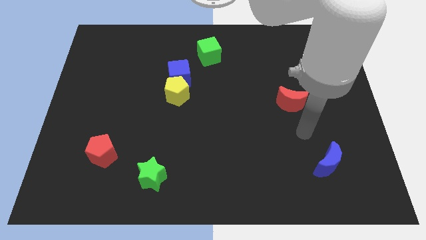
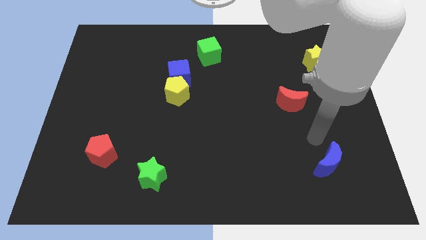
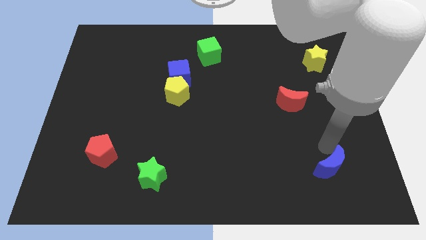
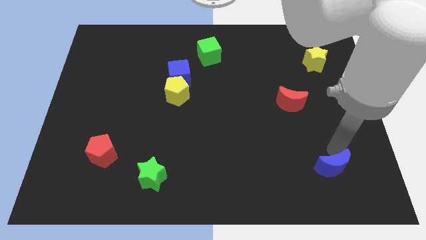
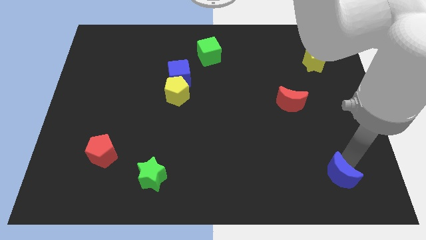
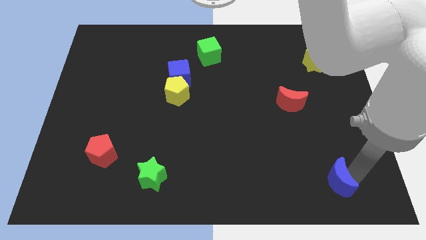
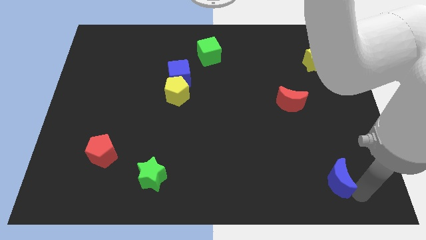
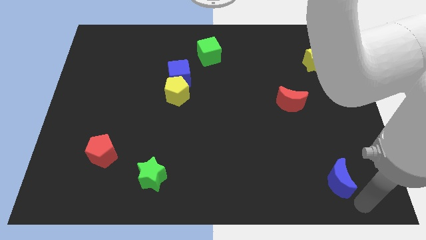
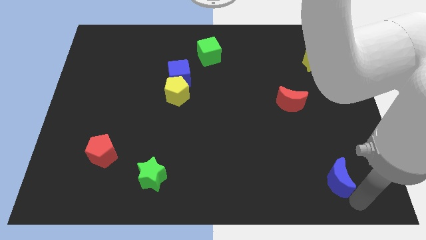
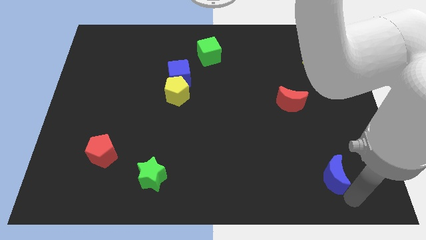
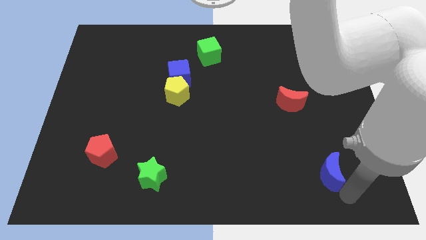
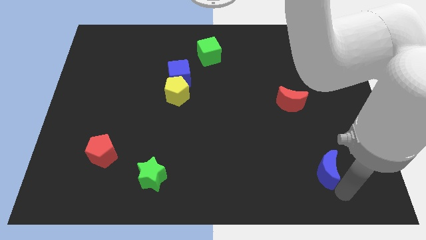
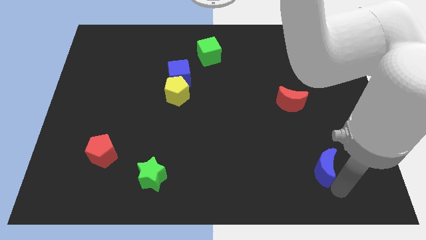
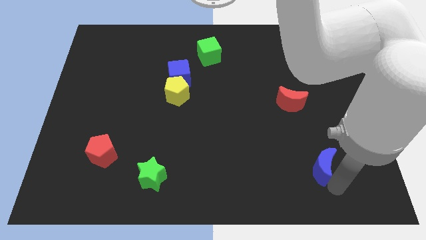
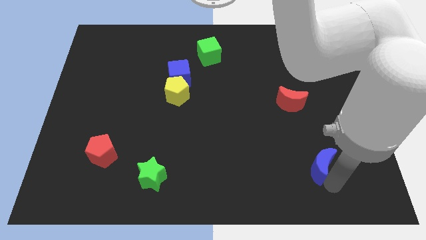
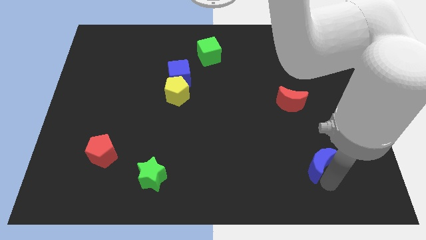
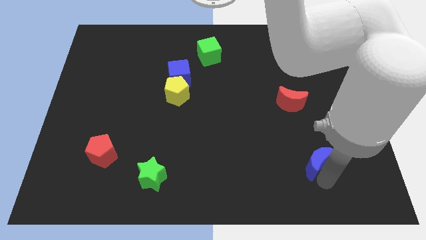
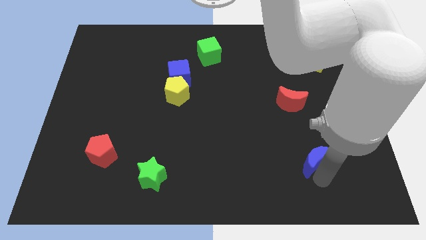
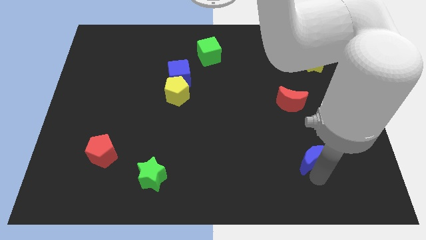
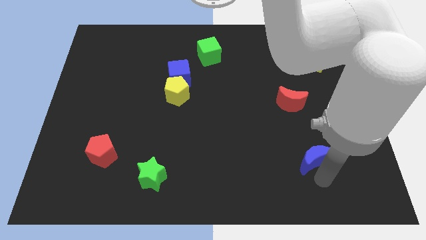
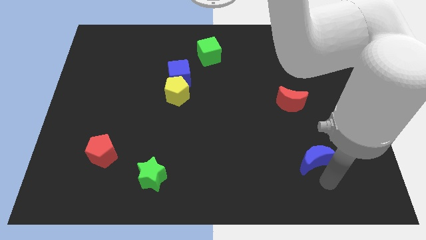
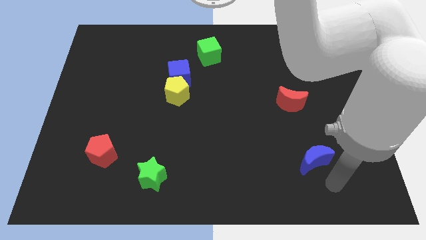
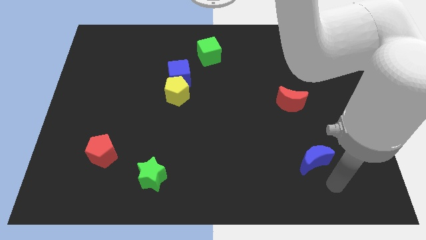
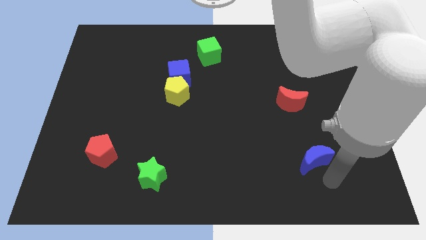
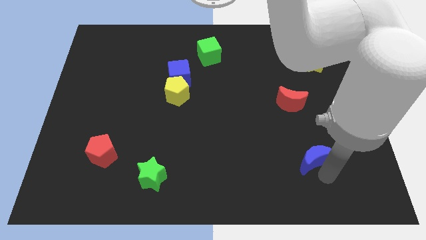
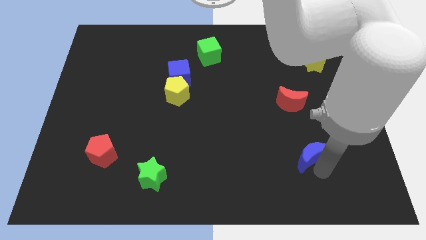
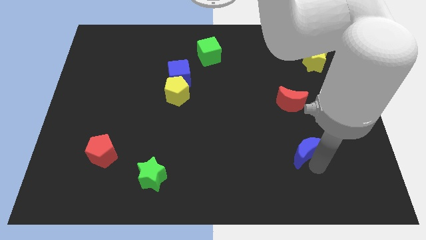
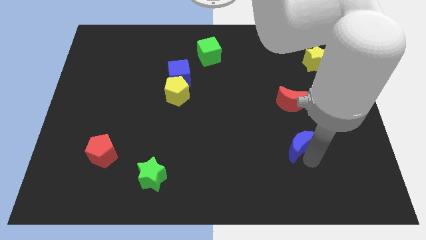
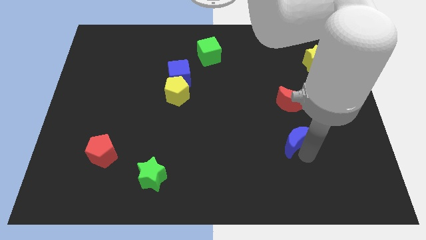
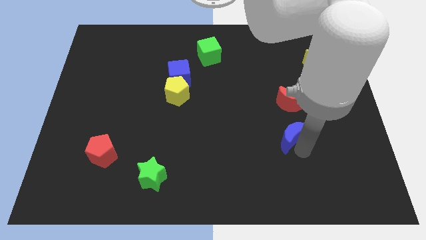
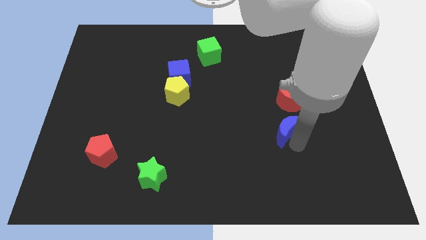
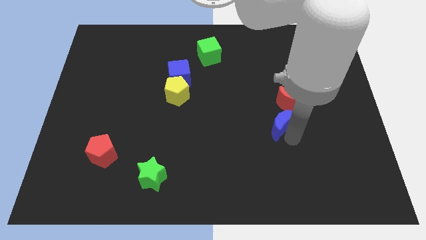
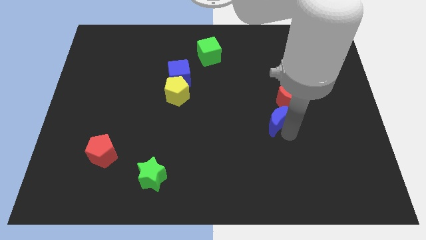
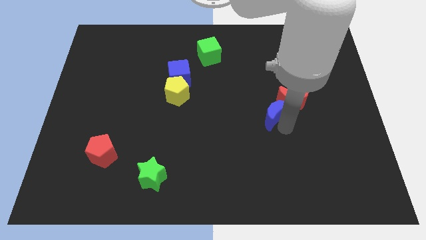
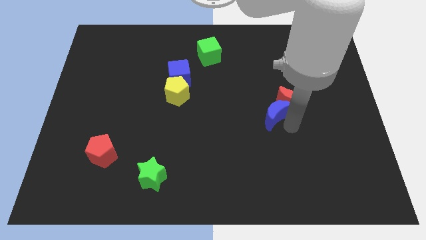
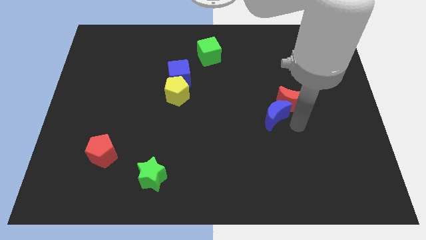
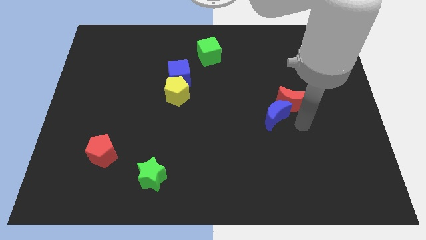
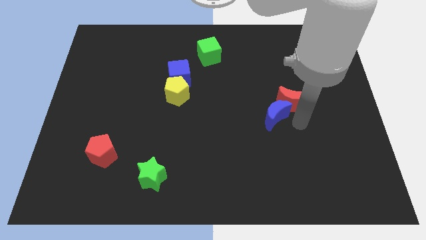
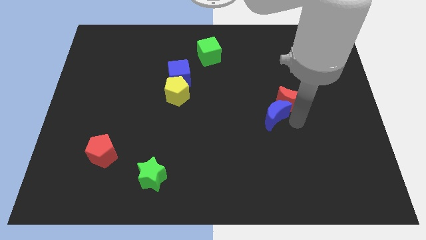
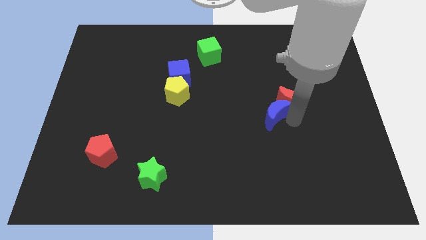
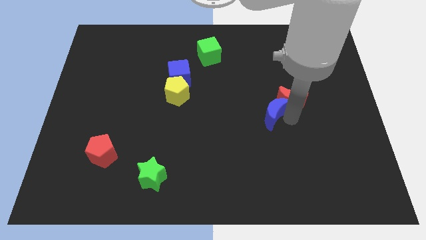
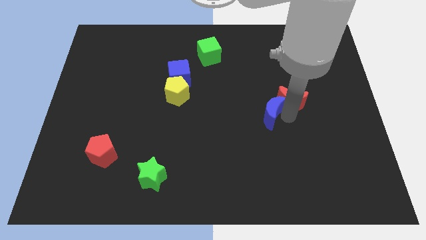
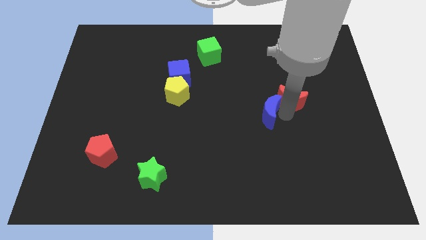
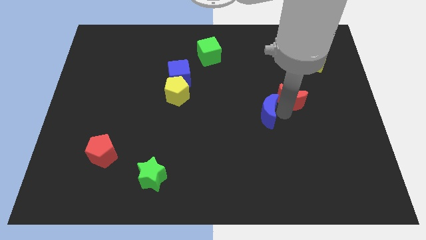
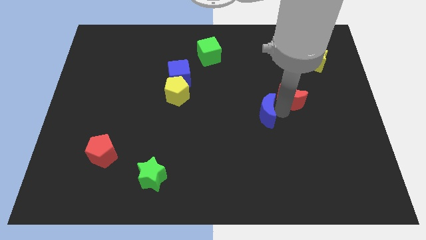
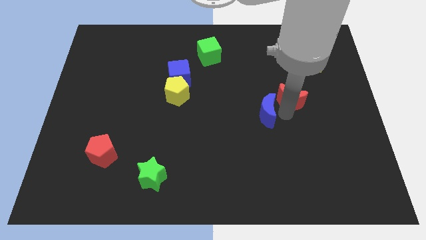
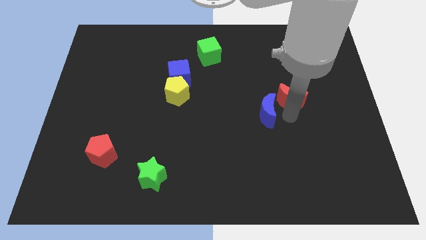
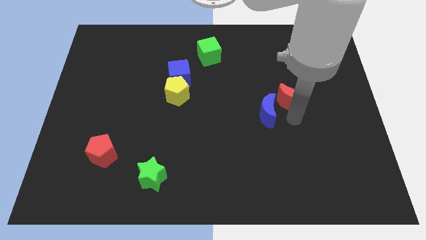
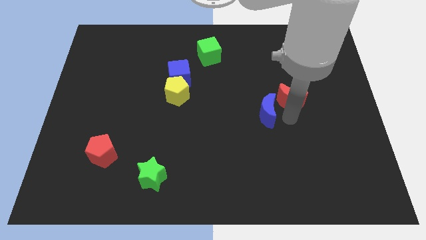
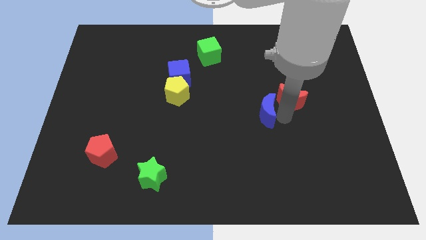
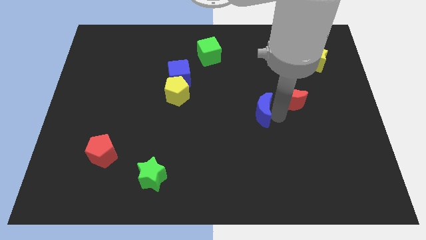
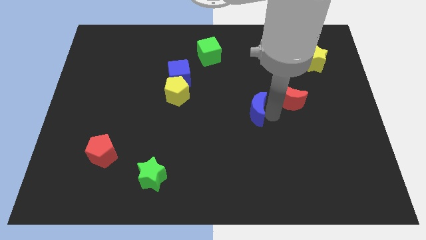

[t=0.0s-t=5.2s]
push the blue moon up and to the left diagonally

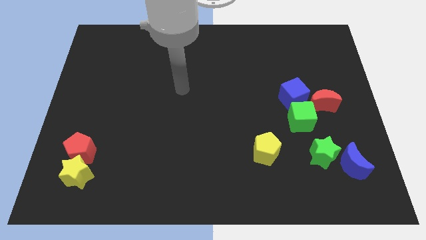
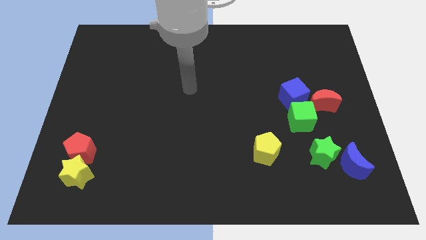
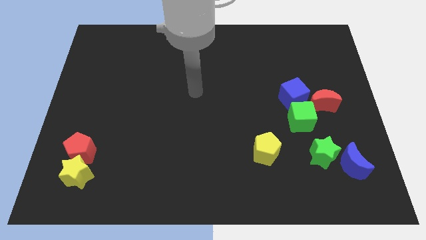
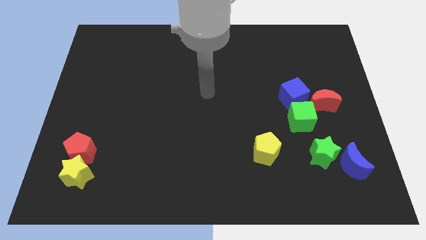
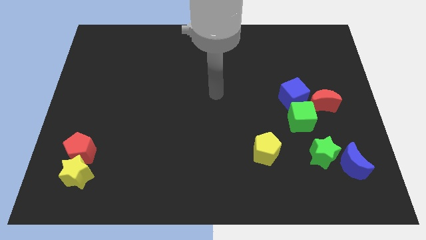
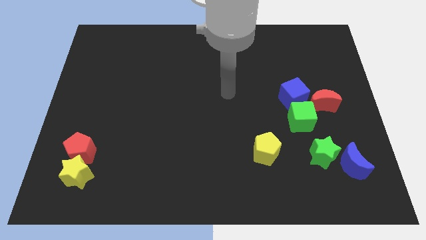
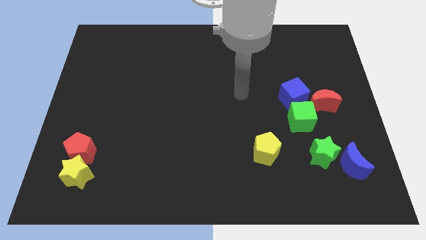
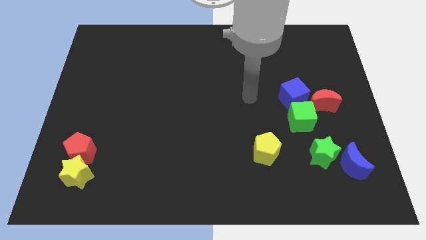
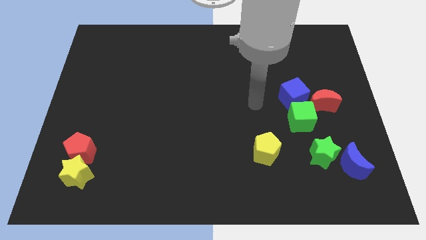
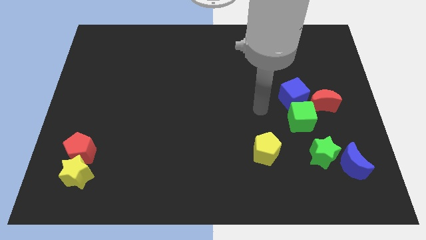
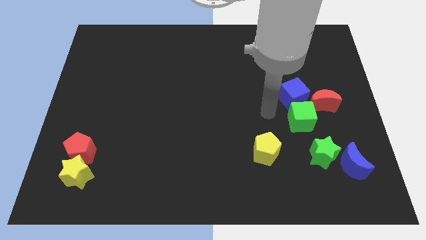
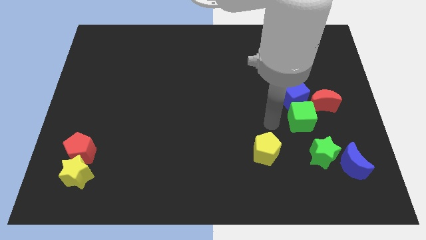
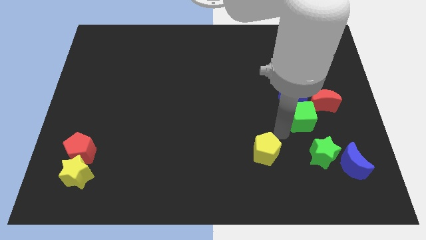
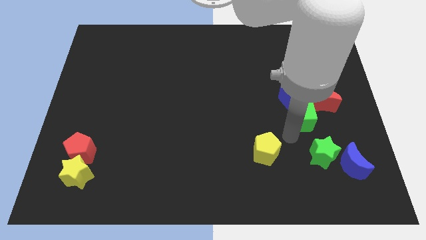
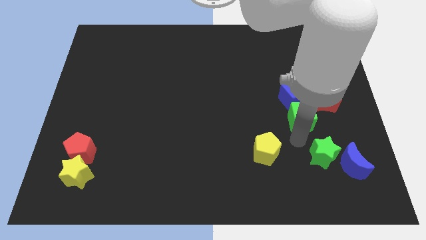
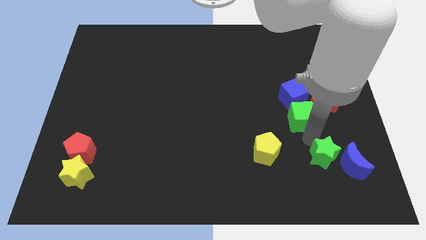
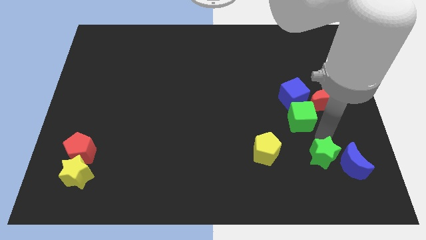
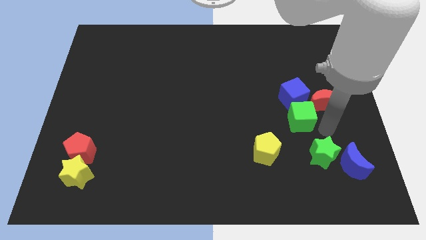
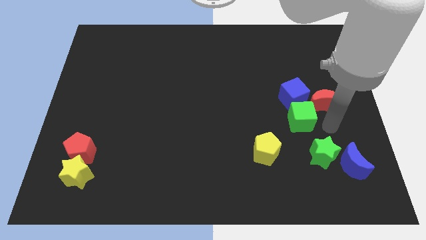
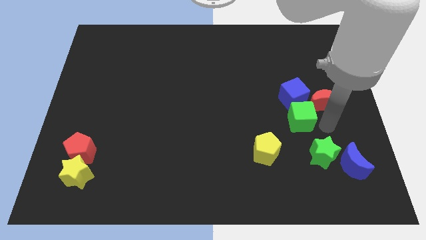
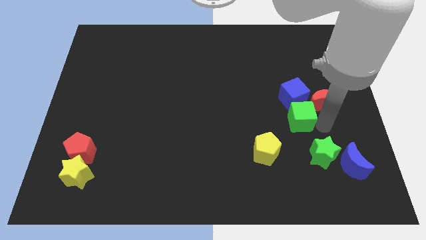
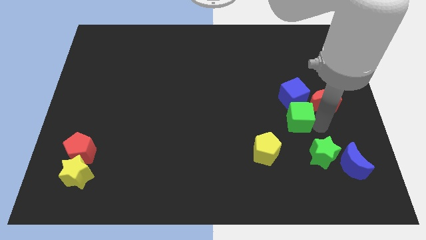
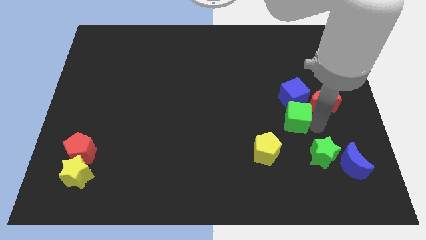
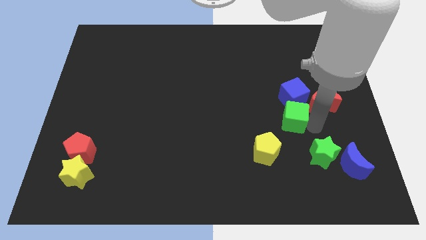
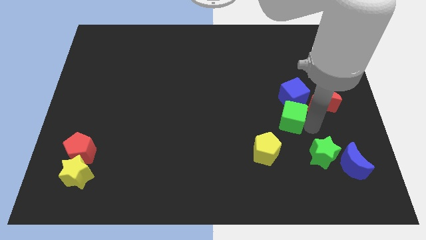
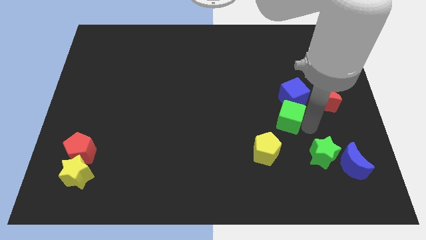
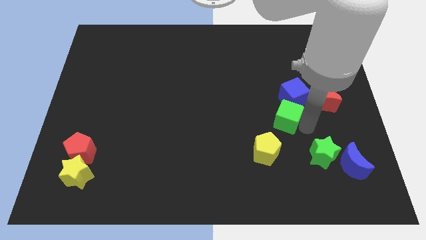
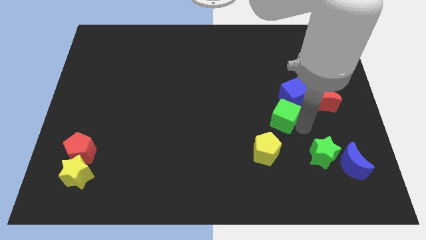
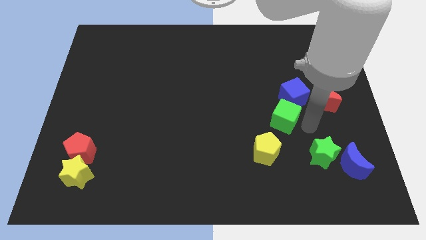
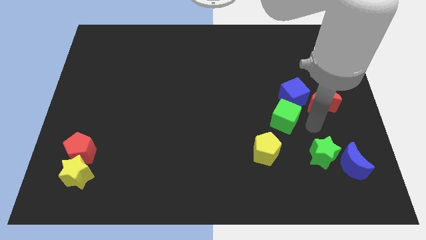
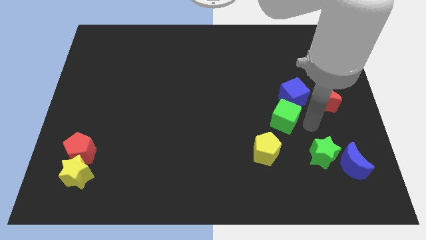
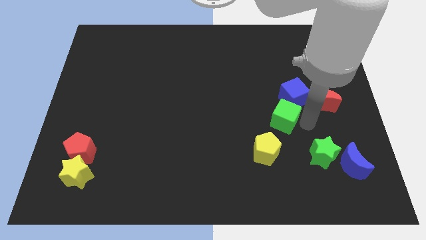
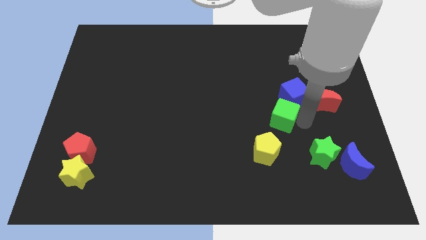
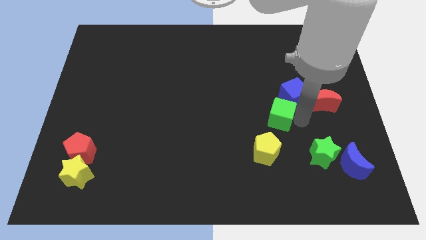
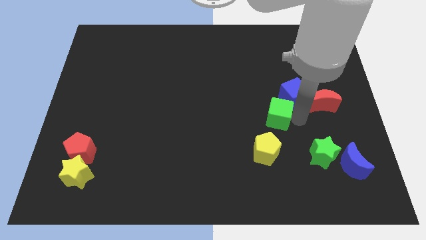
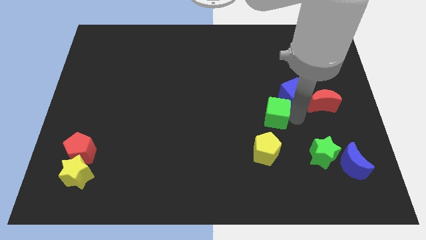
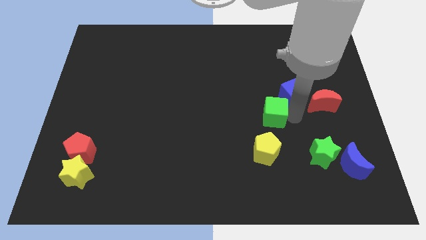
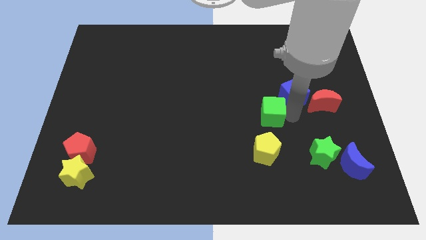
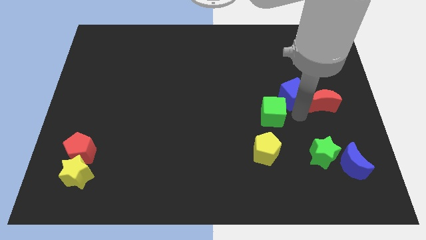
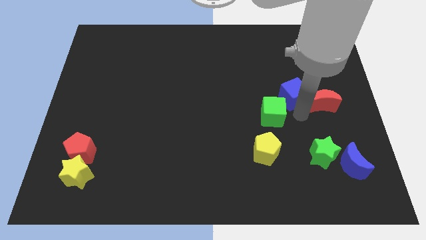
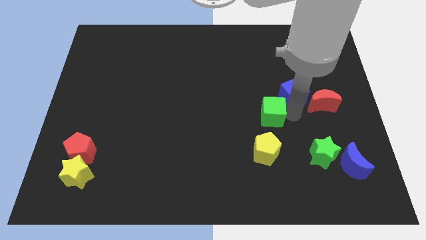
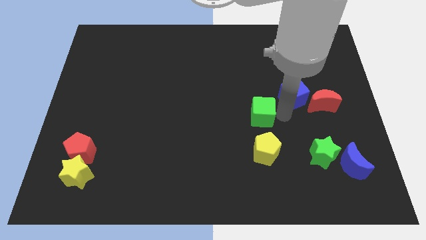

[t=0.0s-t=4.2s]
move the green cube to the left a bit
